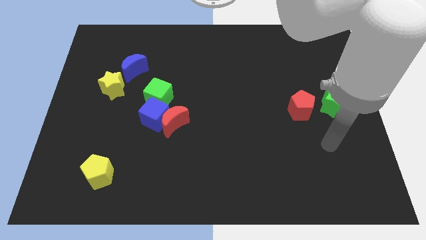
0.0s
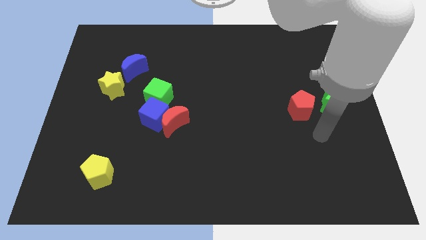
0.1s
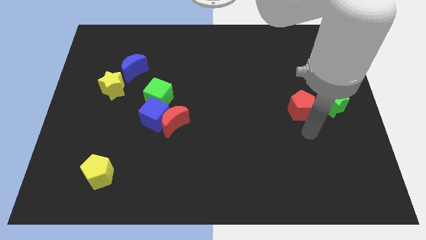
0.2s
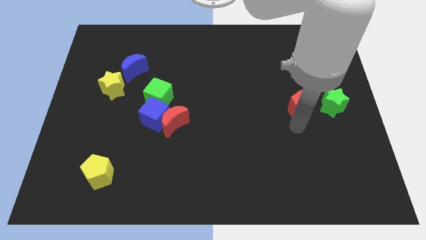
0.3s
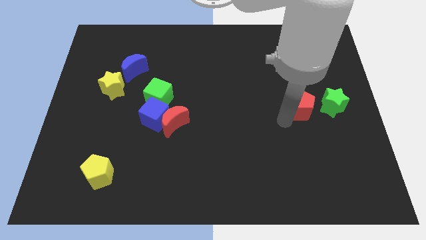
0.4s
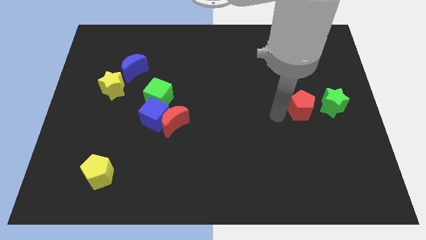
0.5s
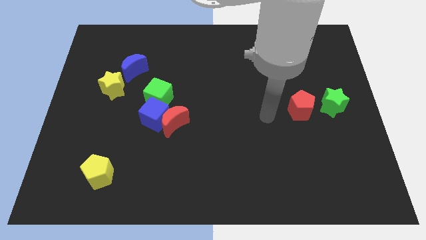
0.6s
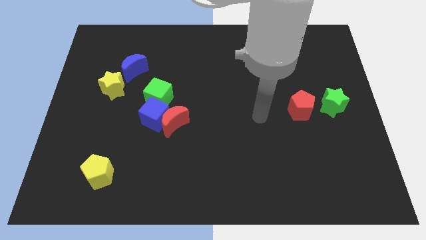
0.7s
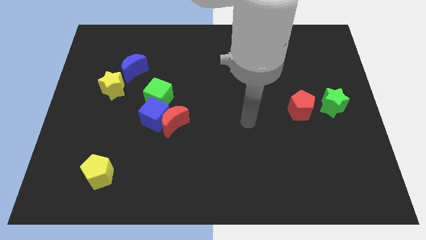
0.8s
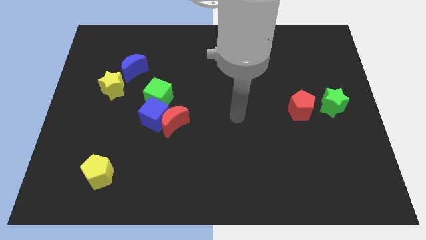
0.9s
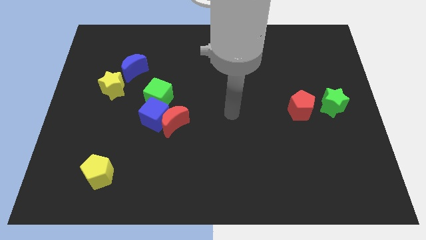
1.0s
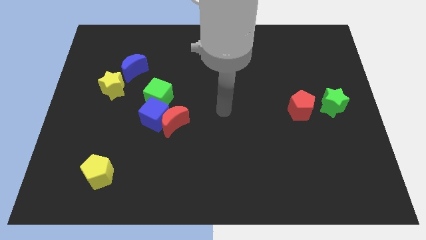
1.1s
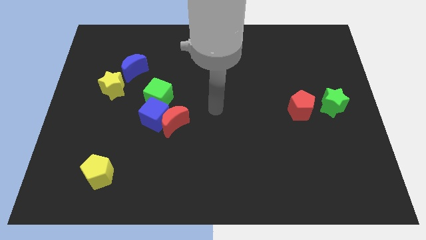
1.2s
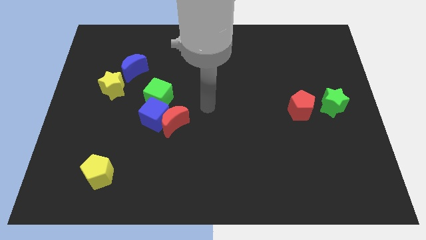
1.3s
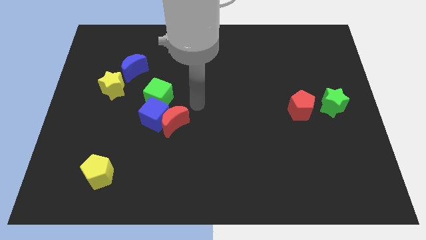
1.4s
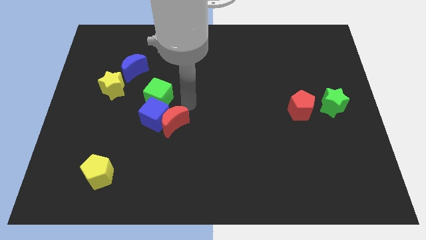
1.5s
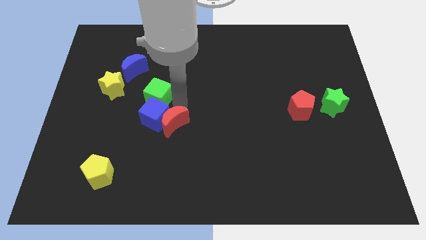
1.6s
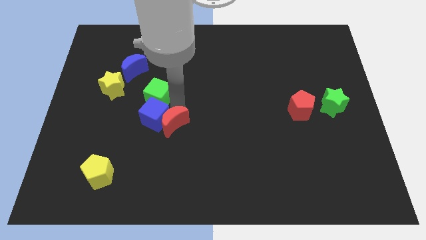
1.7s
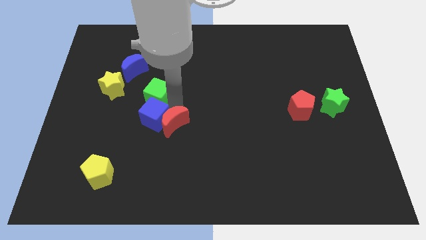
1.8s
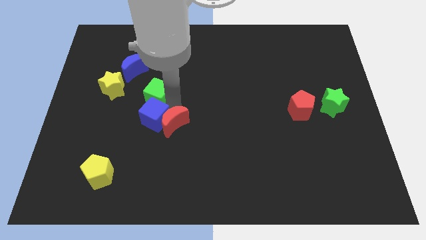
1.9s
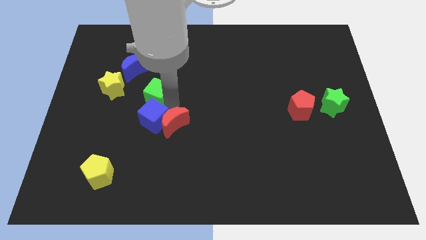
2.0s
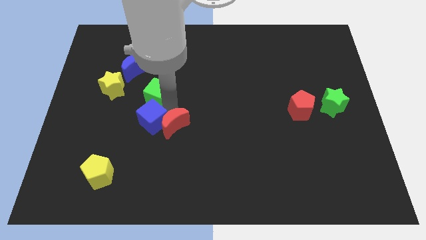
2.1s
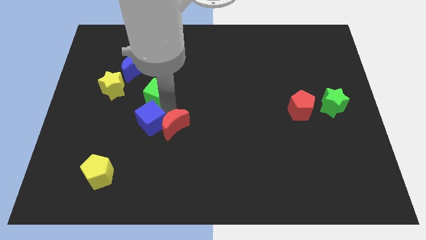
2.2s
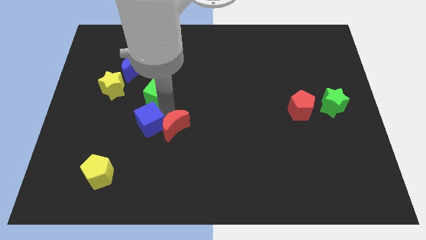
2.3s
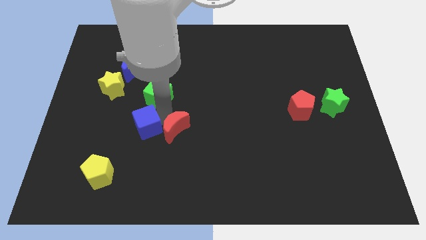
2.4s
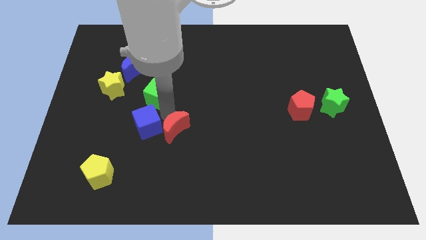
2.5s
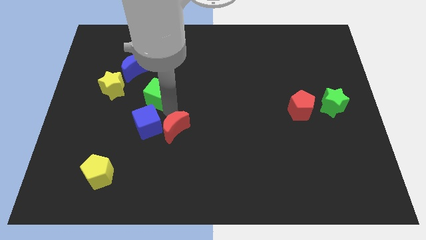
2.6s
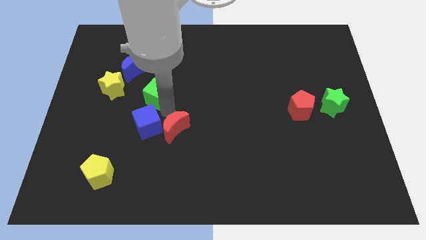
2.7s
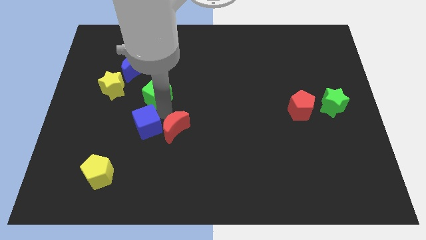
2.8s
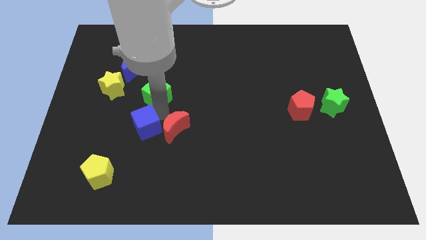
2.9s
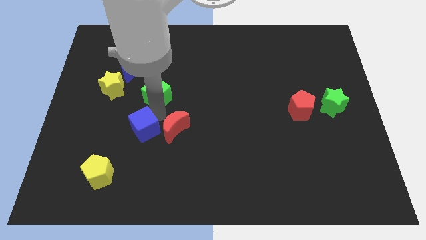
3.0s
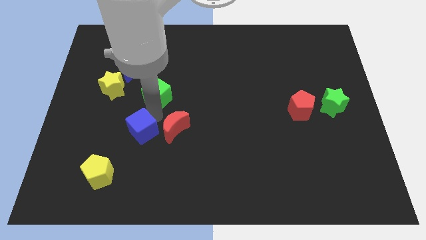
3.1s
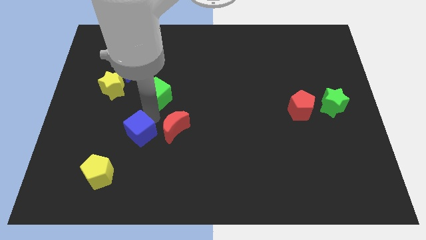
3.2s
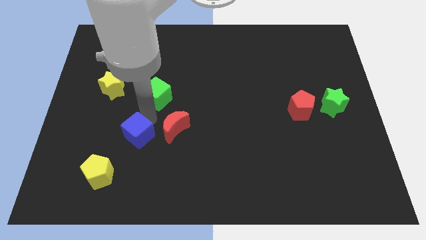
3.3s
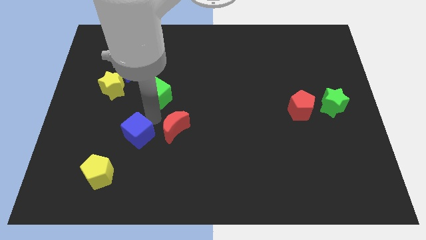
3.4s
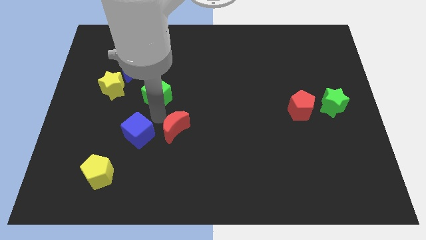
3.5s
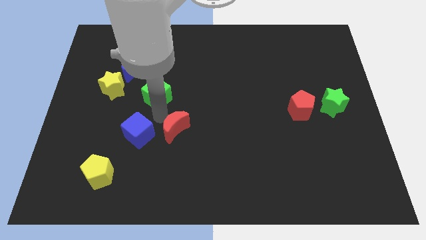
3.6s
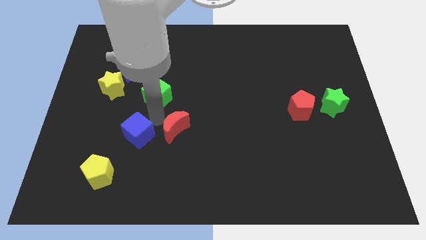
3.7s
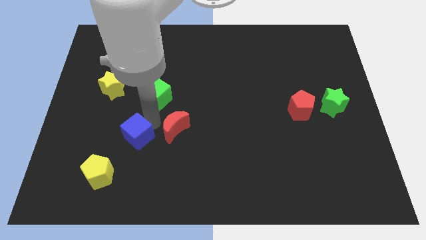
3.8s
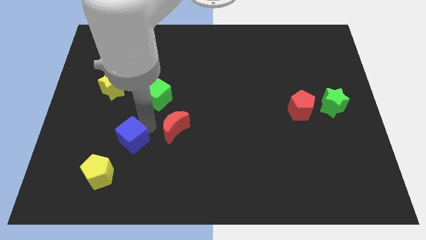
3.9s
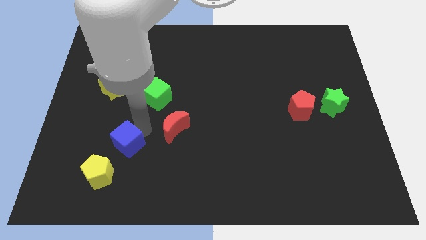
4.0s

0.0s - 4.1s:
pull the blue cube apart from the red moon and green cube

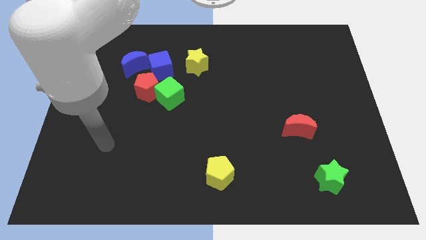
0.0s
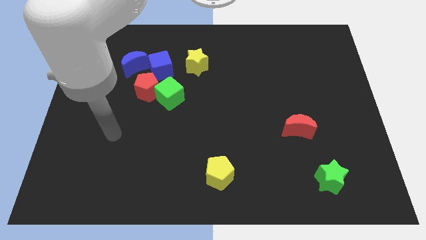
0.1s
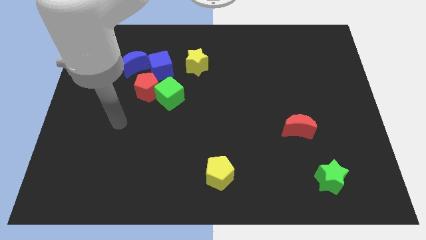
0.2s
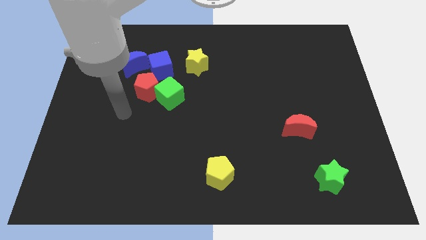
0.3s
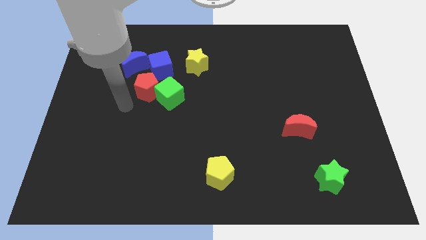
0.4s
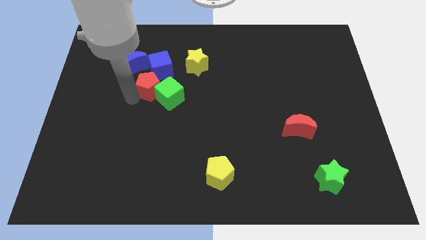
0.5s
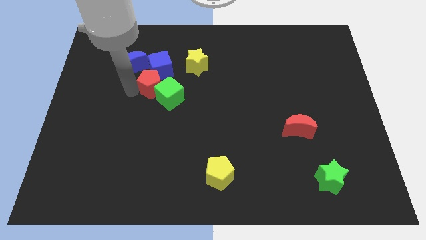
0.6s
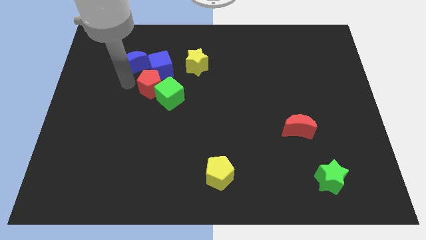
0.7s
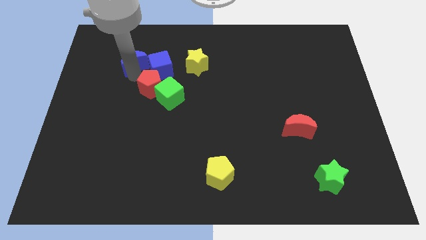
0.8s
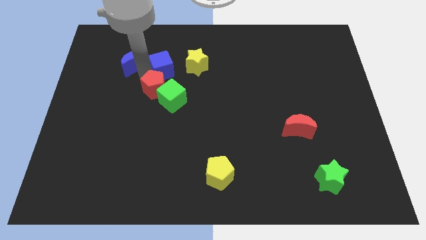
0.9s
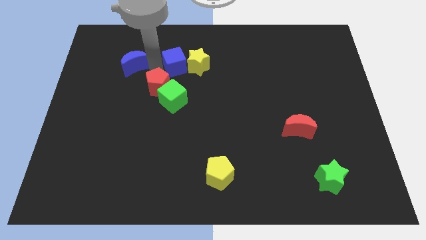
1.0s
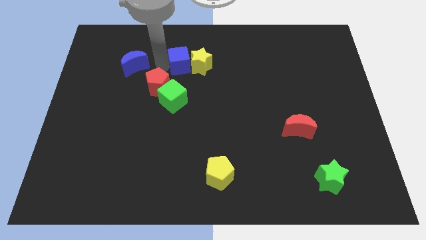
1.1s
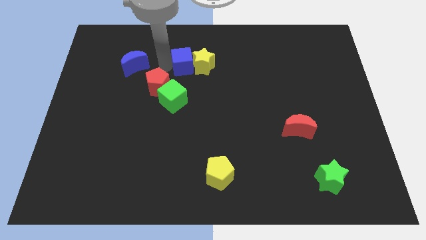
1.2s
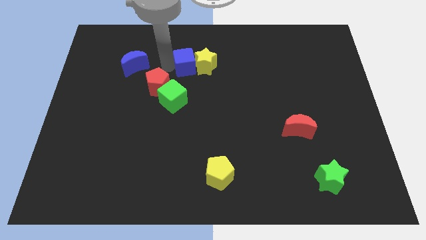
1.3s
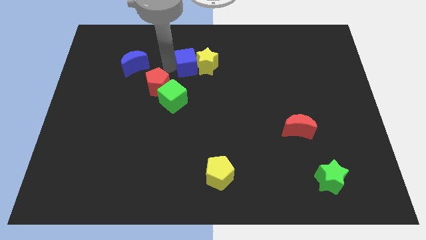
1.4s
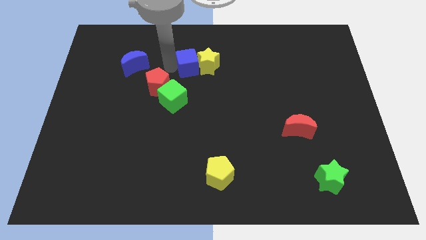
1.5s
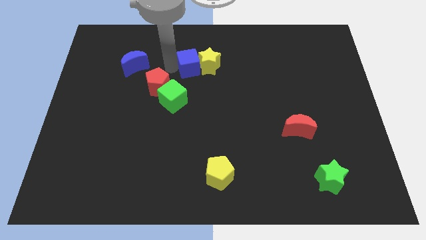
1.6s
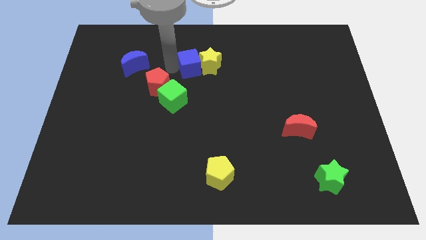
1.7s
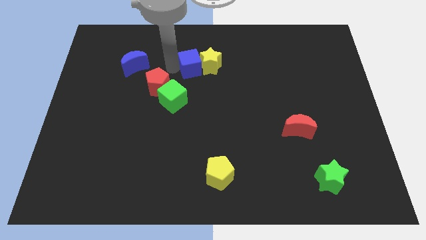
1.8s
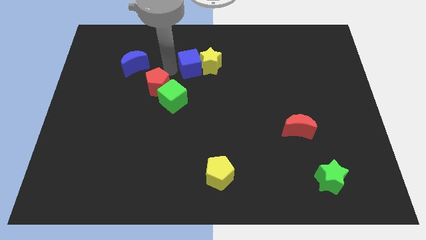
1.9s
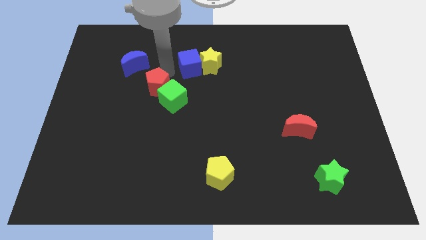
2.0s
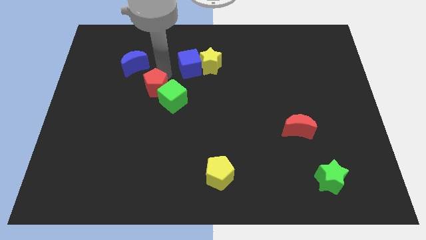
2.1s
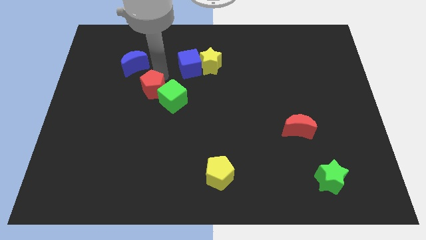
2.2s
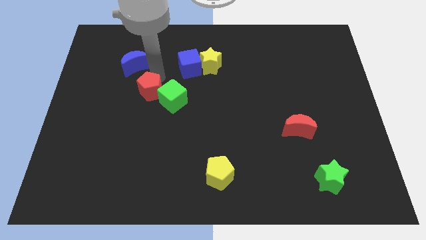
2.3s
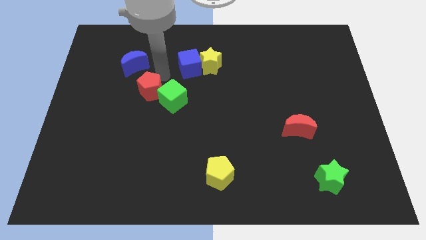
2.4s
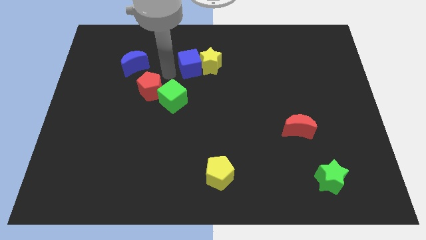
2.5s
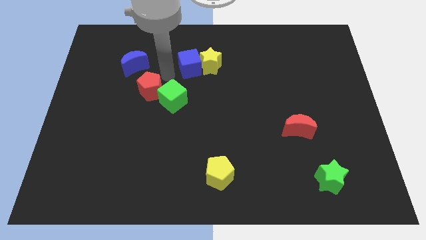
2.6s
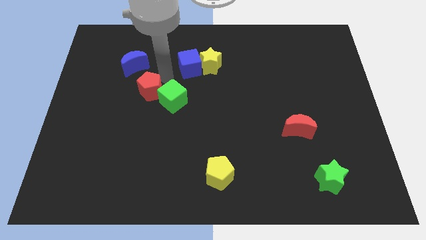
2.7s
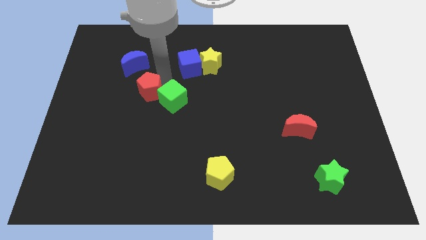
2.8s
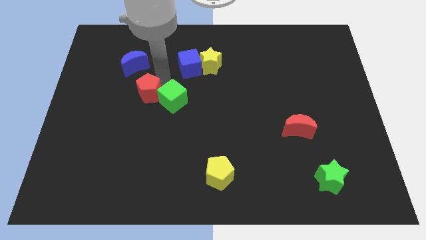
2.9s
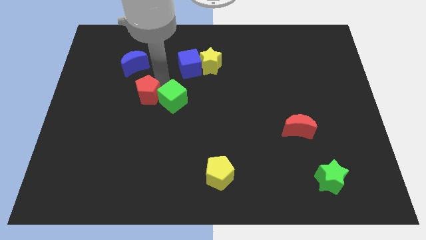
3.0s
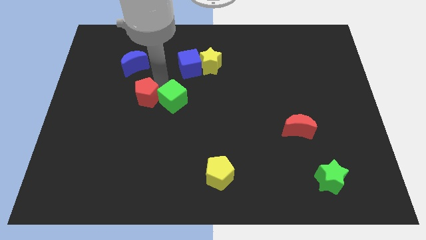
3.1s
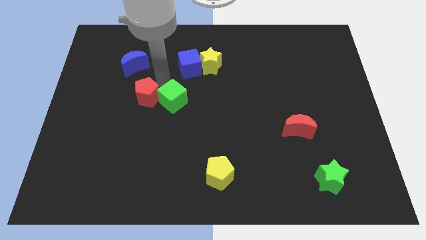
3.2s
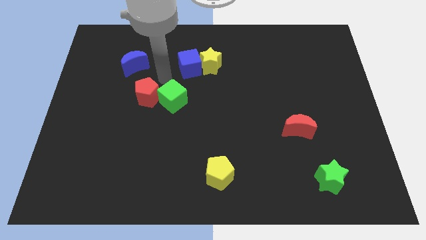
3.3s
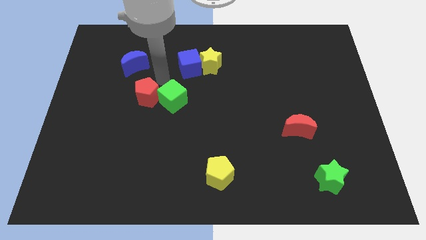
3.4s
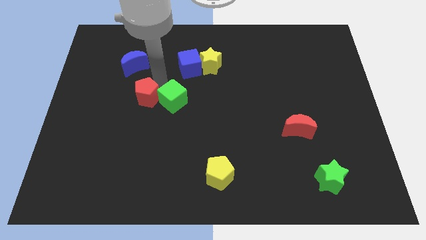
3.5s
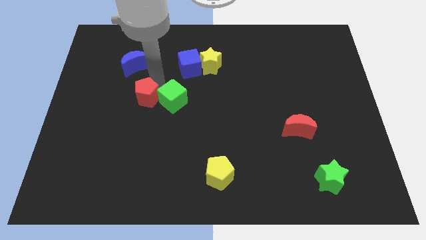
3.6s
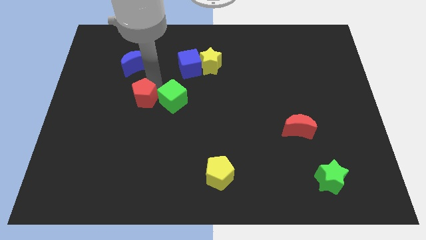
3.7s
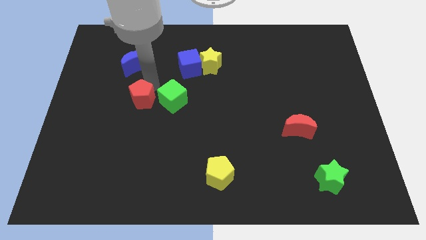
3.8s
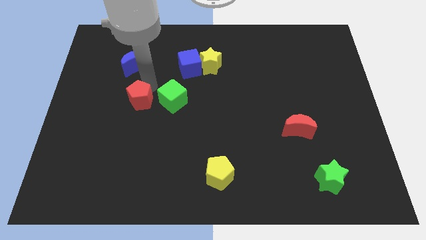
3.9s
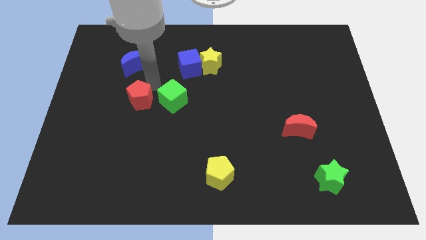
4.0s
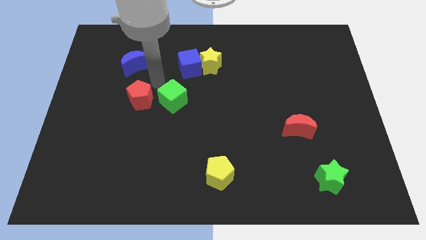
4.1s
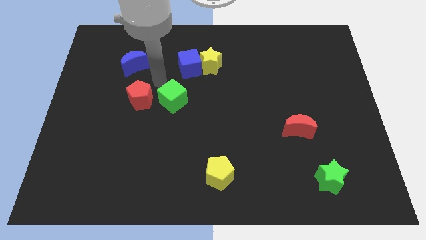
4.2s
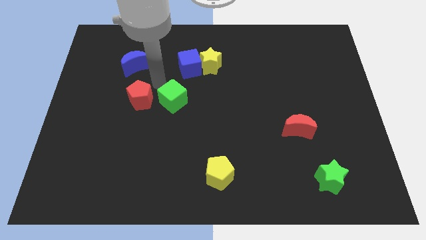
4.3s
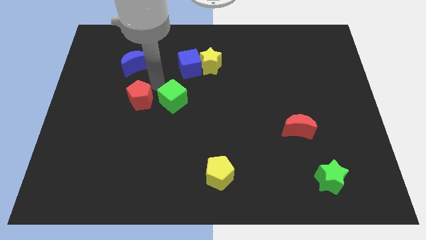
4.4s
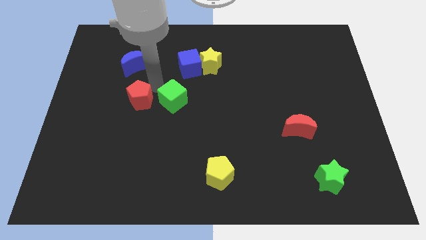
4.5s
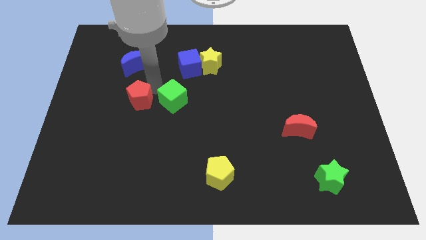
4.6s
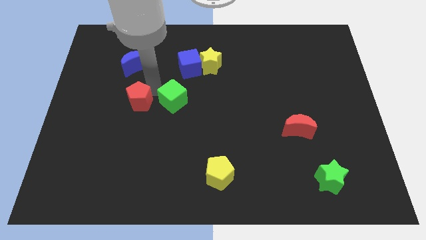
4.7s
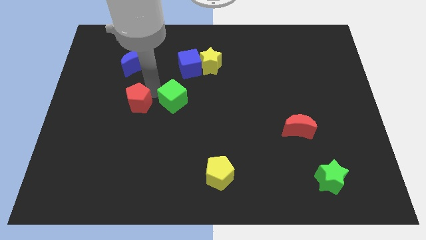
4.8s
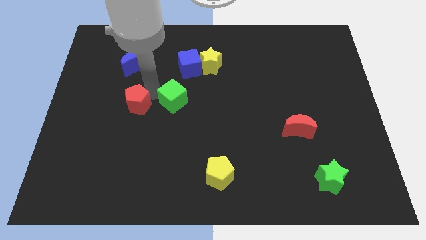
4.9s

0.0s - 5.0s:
pull the red pentagon apart from the green cube, blue cube, and blue moon

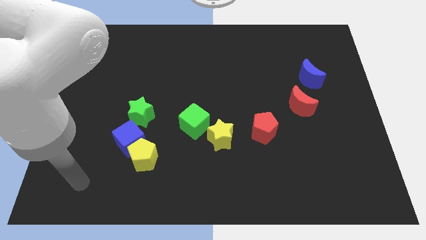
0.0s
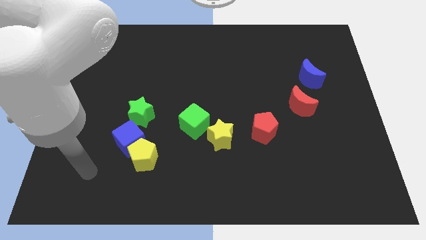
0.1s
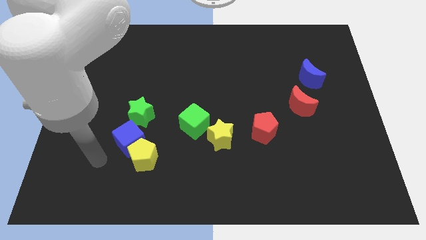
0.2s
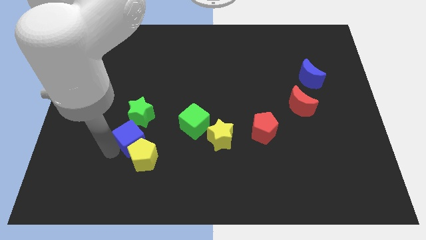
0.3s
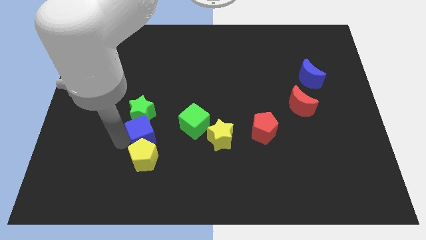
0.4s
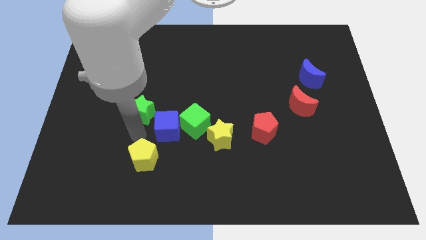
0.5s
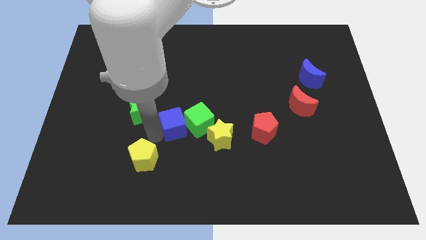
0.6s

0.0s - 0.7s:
pull the yellow pentagon apart from the blue cube
